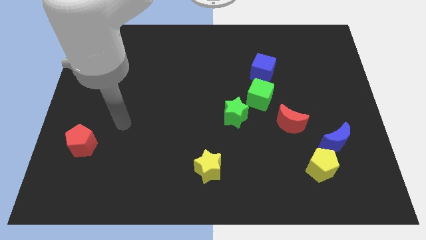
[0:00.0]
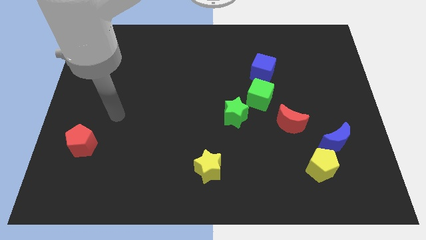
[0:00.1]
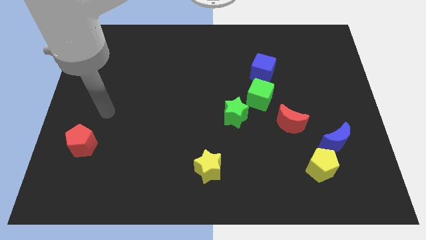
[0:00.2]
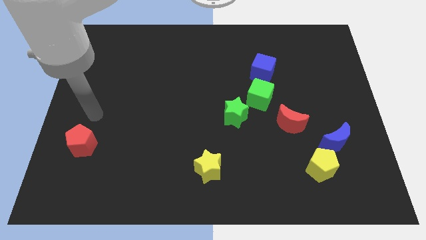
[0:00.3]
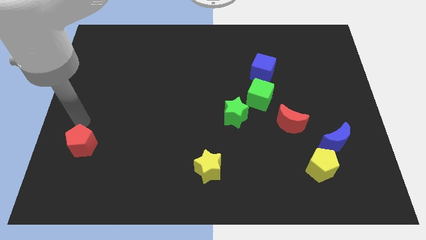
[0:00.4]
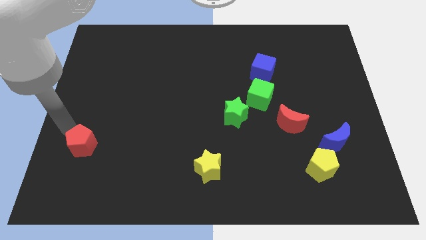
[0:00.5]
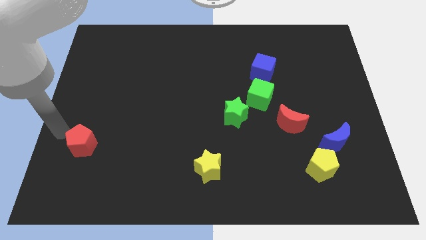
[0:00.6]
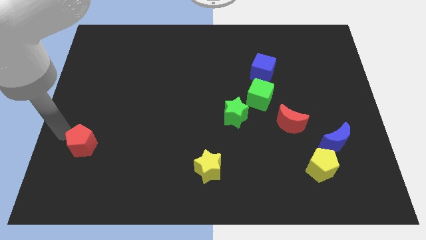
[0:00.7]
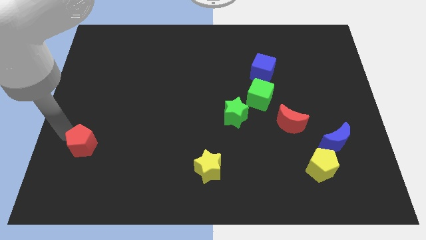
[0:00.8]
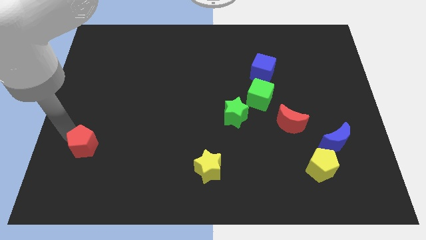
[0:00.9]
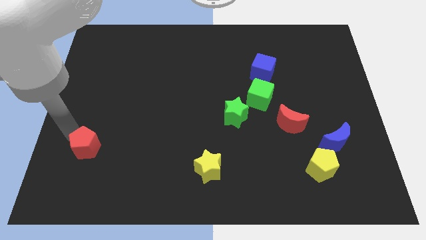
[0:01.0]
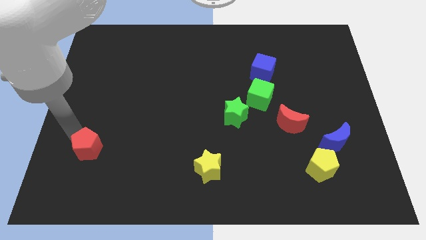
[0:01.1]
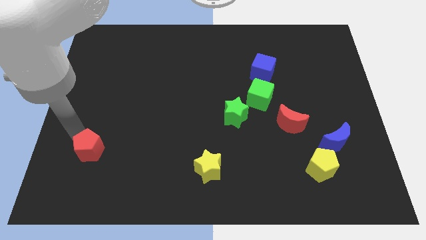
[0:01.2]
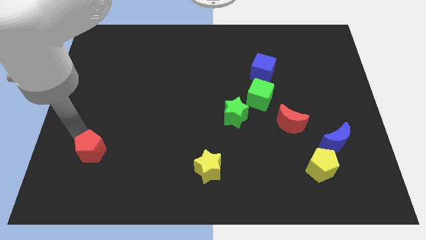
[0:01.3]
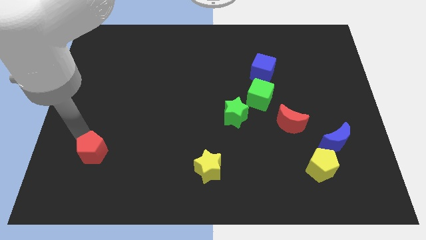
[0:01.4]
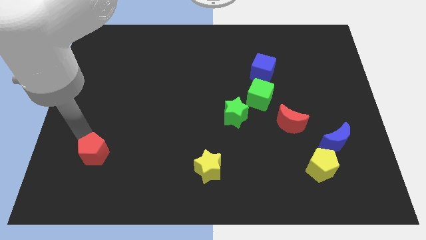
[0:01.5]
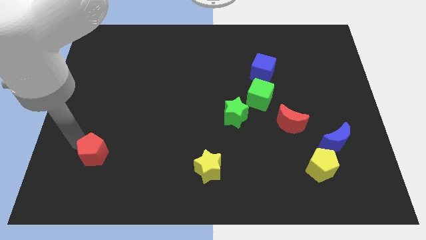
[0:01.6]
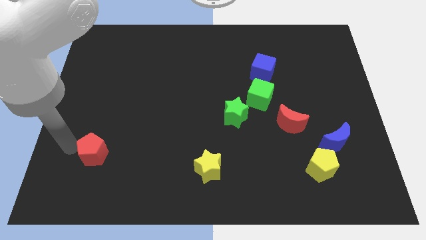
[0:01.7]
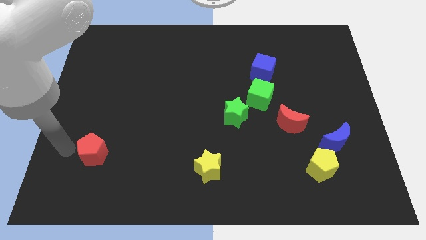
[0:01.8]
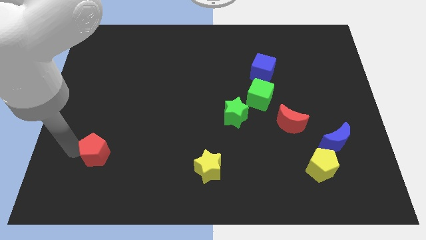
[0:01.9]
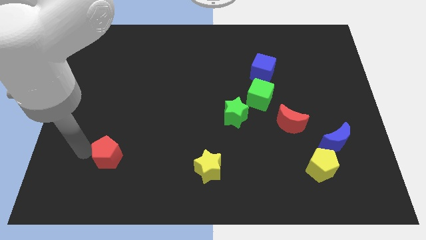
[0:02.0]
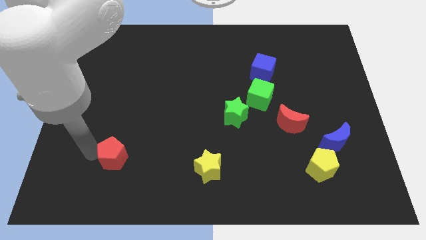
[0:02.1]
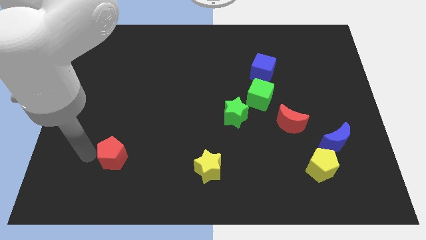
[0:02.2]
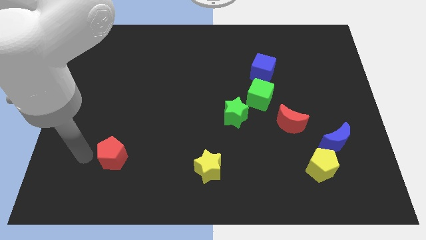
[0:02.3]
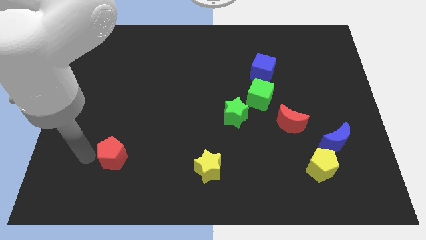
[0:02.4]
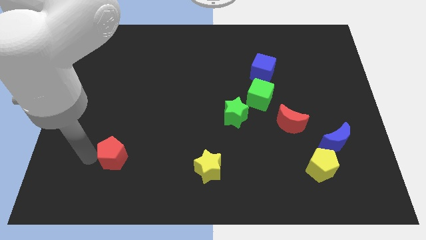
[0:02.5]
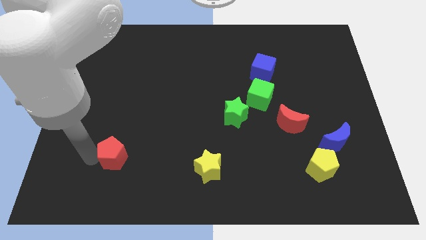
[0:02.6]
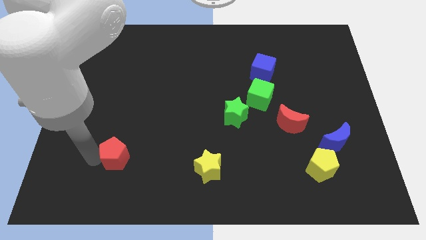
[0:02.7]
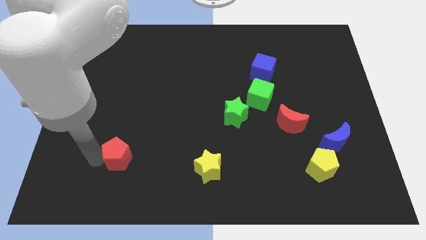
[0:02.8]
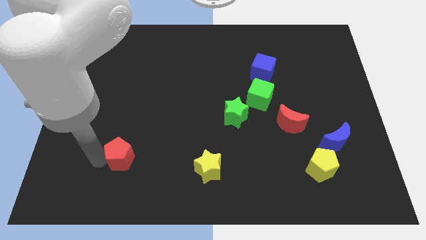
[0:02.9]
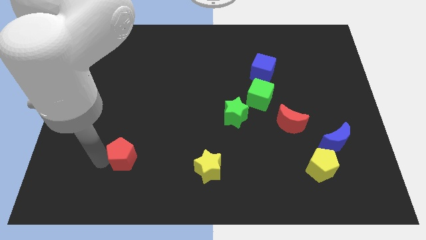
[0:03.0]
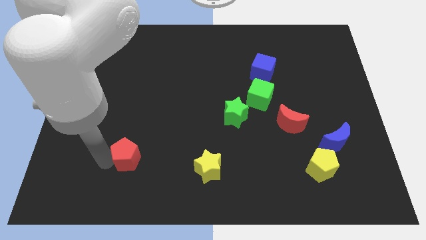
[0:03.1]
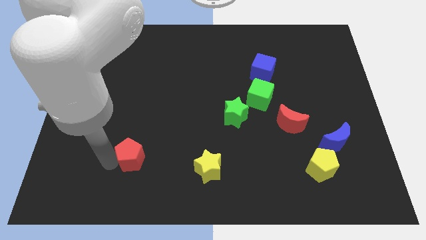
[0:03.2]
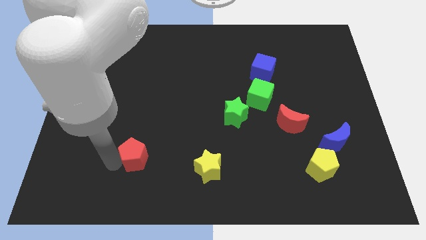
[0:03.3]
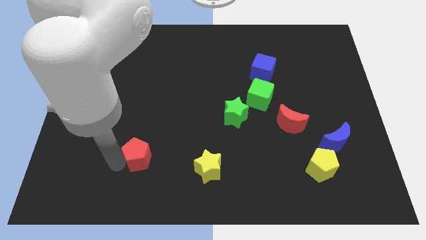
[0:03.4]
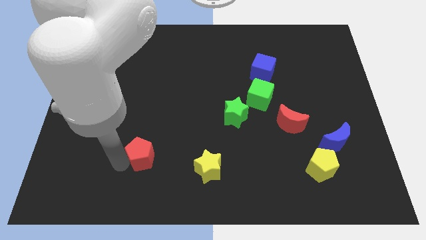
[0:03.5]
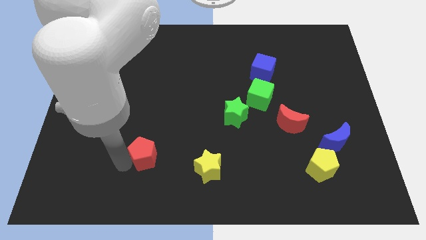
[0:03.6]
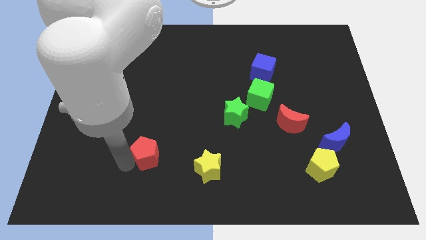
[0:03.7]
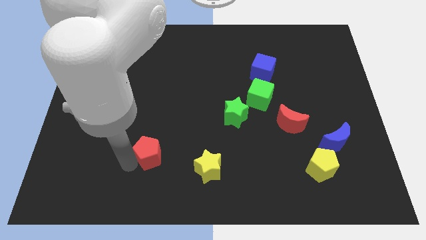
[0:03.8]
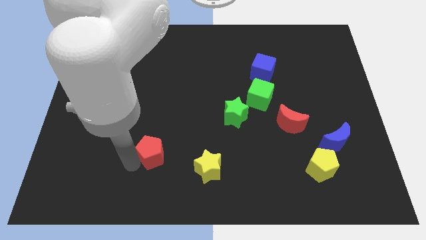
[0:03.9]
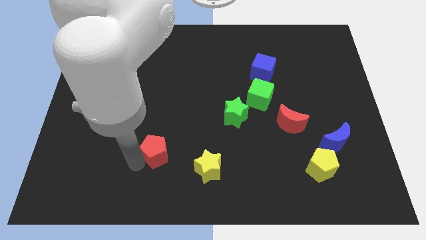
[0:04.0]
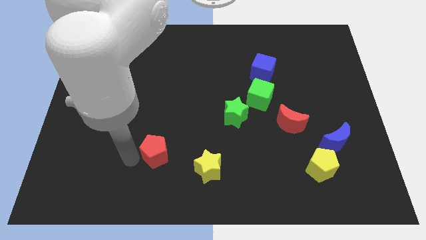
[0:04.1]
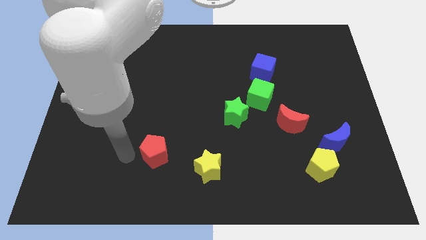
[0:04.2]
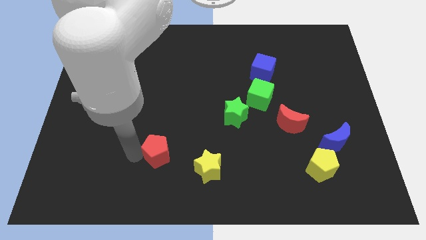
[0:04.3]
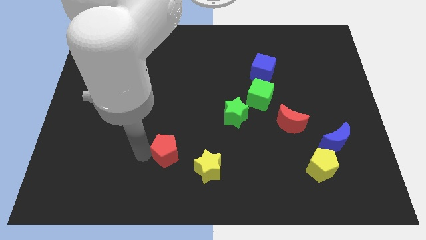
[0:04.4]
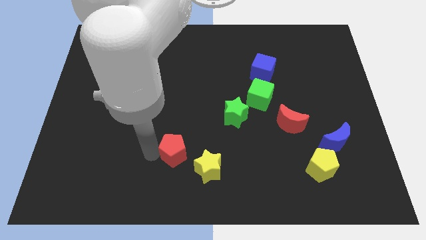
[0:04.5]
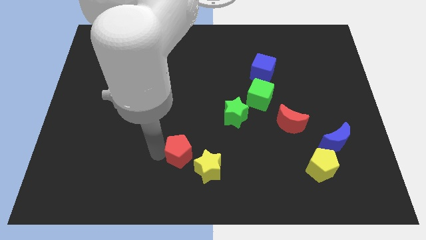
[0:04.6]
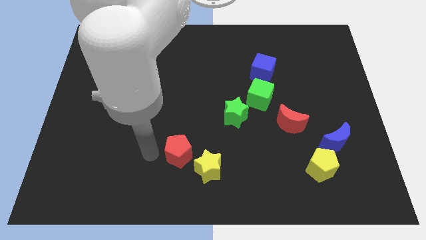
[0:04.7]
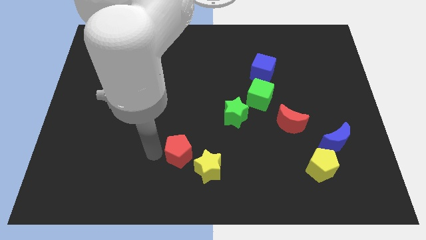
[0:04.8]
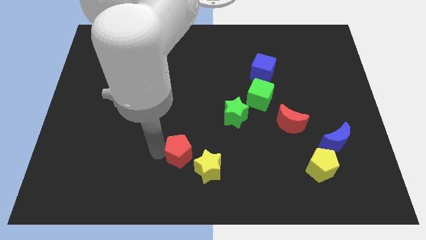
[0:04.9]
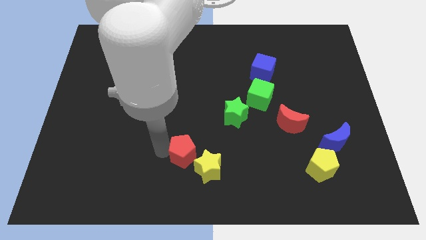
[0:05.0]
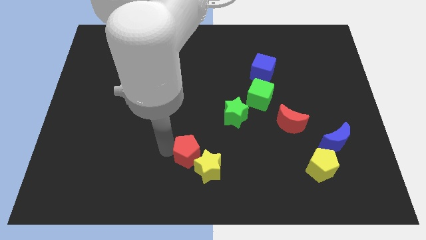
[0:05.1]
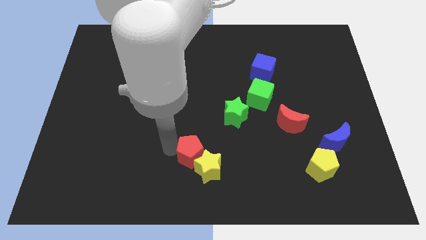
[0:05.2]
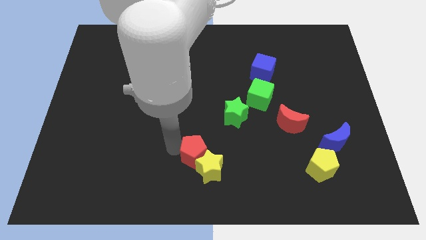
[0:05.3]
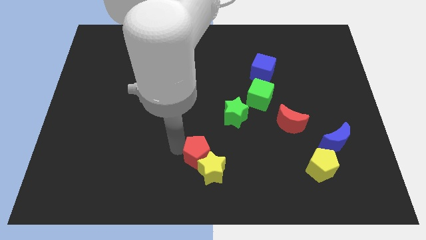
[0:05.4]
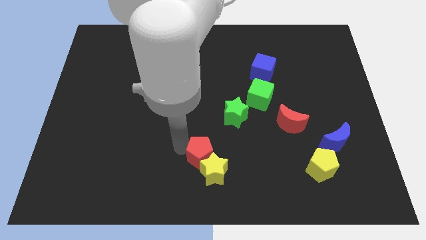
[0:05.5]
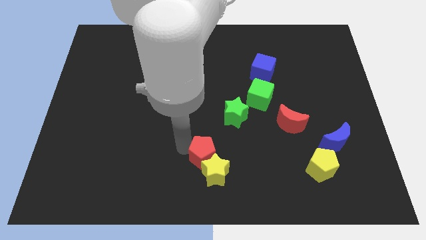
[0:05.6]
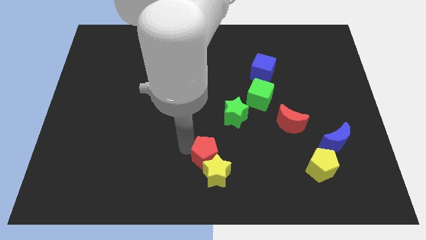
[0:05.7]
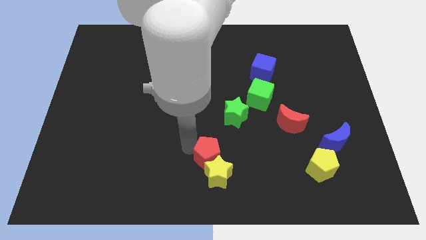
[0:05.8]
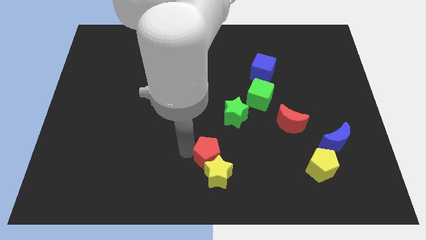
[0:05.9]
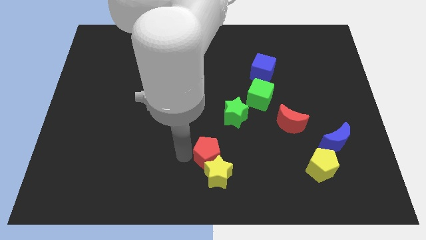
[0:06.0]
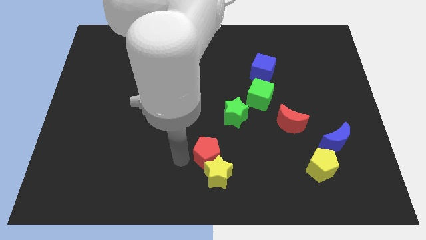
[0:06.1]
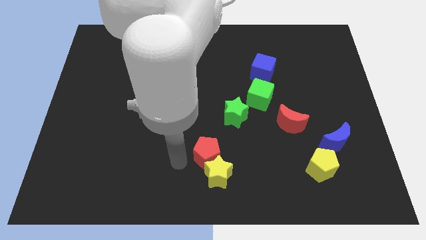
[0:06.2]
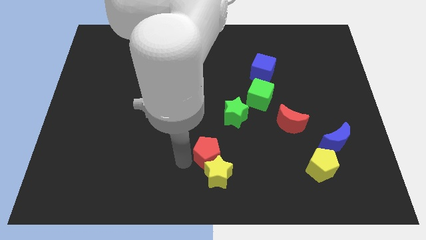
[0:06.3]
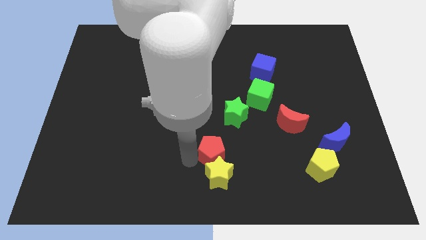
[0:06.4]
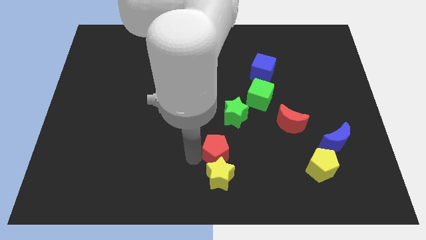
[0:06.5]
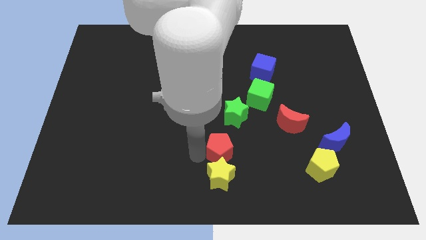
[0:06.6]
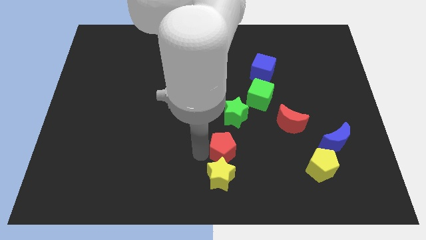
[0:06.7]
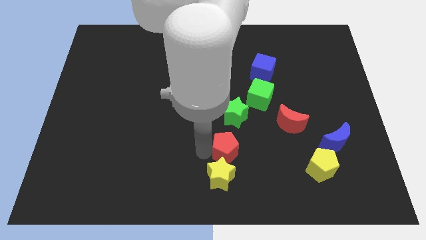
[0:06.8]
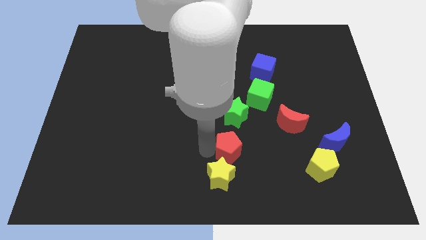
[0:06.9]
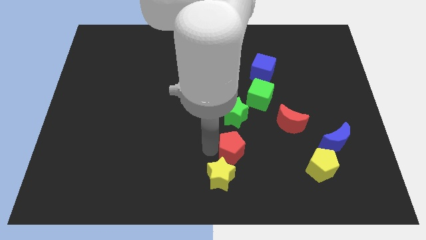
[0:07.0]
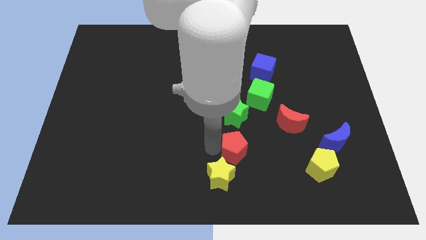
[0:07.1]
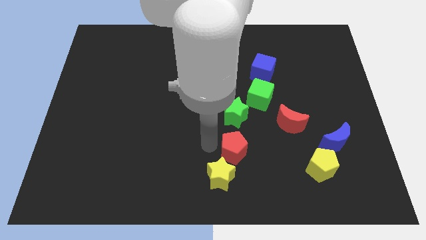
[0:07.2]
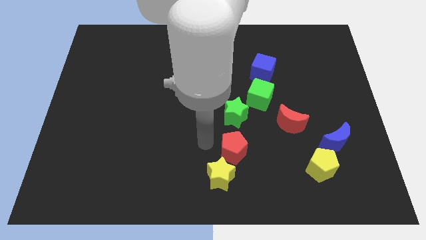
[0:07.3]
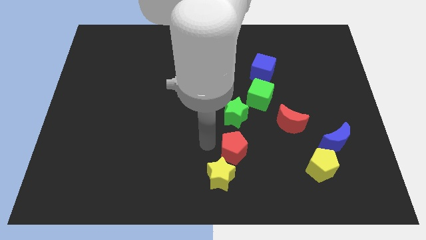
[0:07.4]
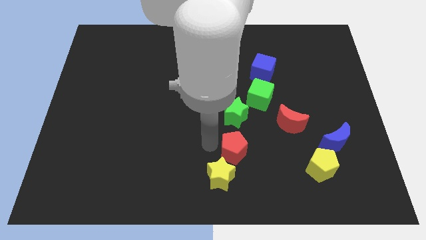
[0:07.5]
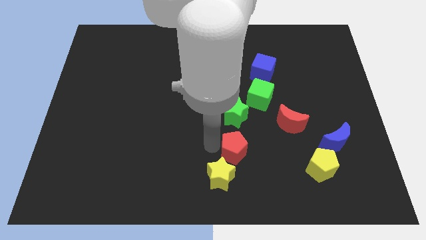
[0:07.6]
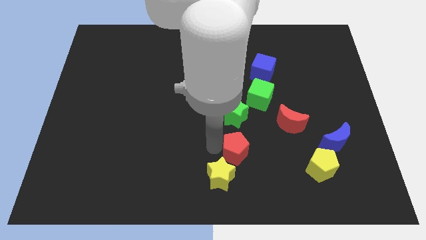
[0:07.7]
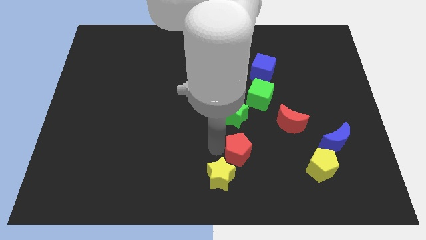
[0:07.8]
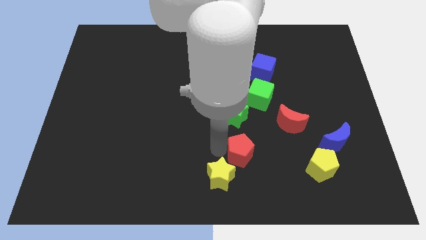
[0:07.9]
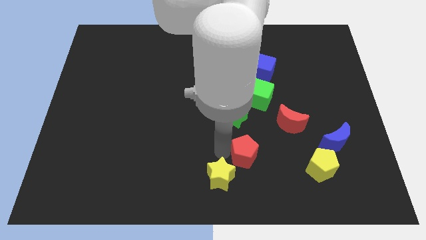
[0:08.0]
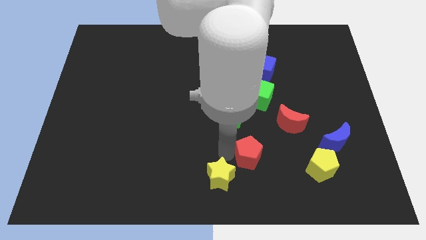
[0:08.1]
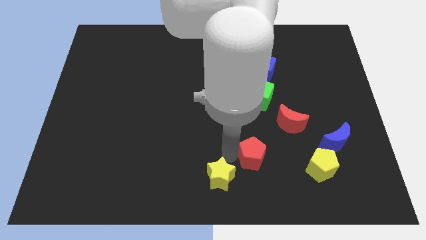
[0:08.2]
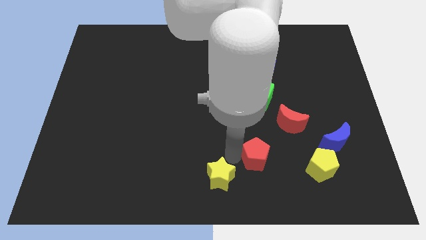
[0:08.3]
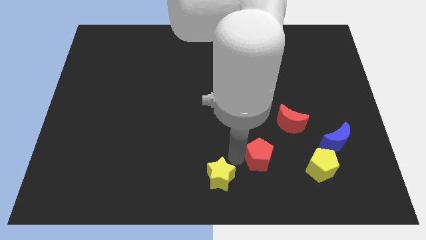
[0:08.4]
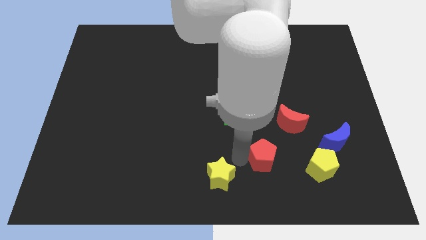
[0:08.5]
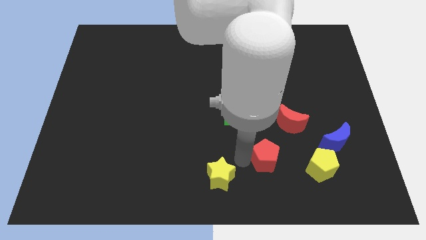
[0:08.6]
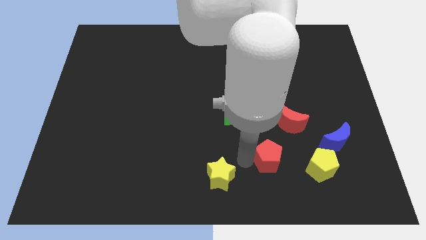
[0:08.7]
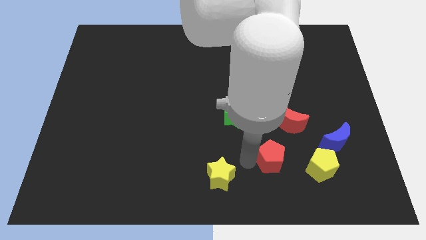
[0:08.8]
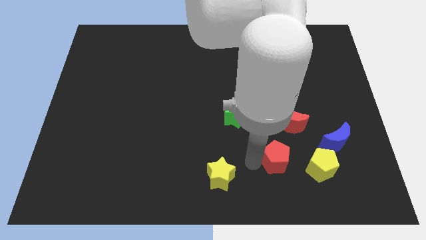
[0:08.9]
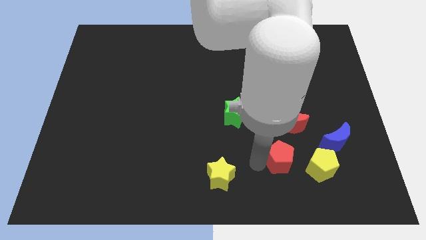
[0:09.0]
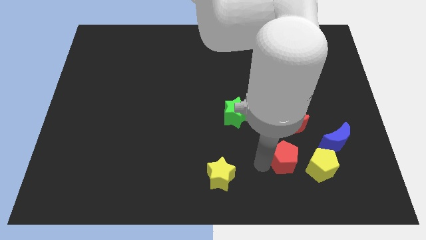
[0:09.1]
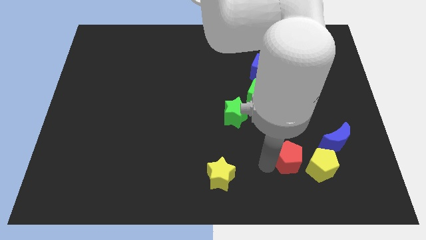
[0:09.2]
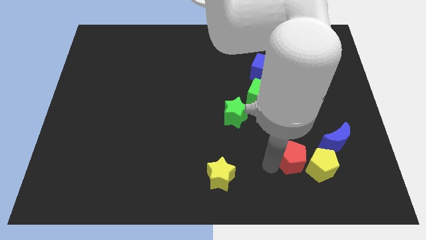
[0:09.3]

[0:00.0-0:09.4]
put the red pentagon next to the yellow pentagon
